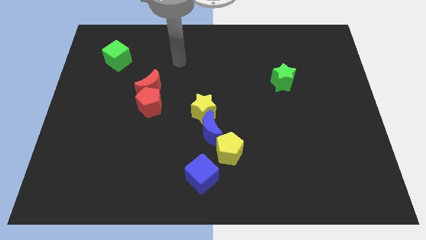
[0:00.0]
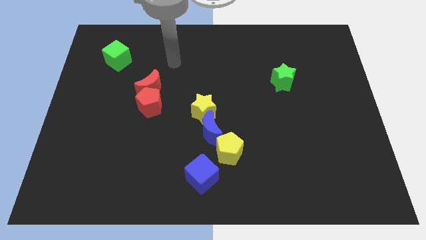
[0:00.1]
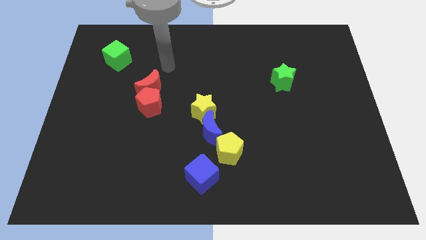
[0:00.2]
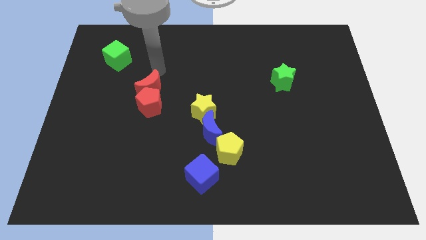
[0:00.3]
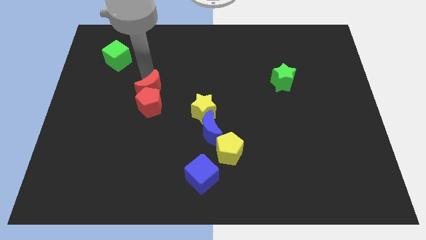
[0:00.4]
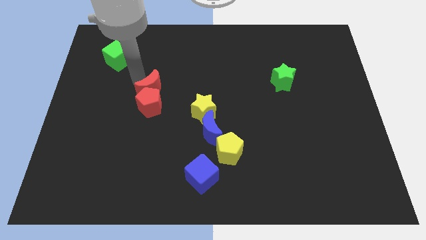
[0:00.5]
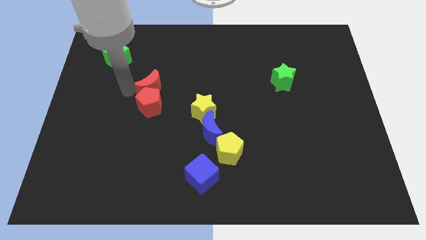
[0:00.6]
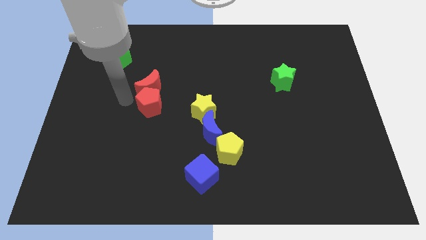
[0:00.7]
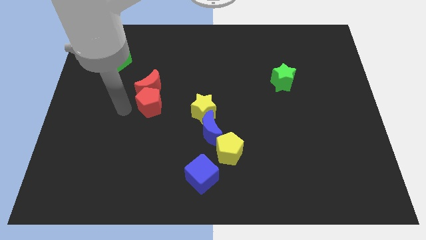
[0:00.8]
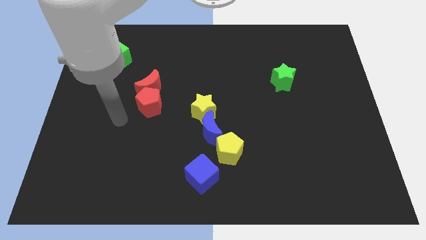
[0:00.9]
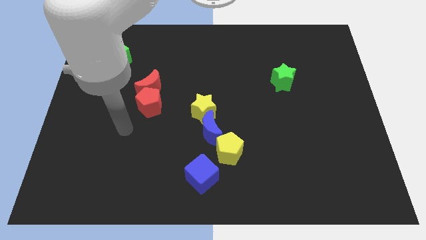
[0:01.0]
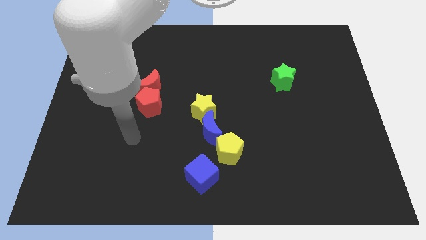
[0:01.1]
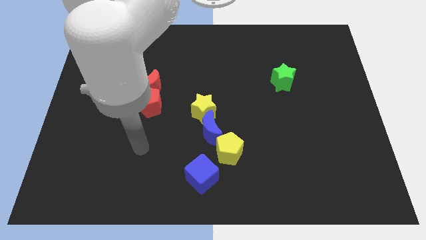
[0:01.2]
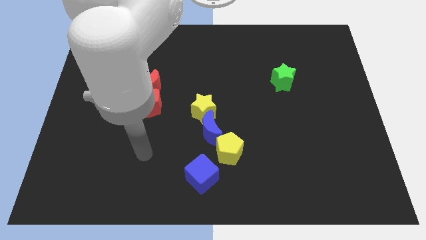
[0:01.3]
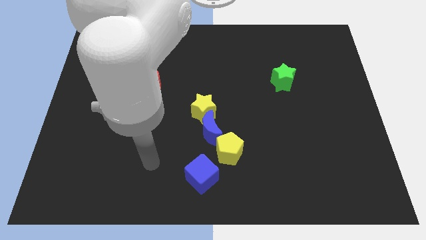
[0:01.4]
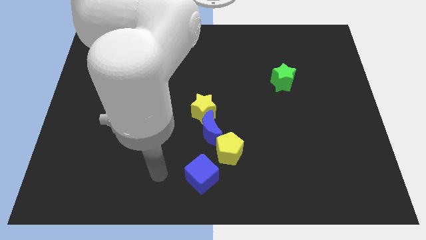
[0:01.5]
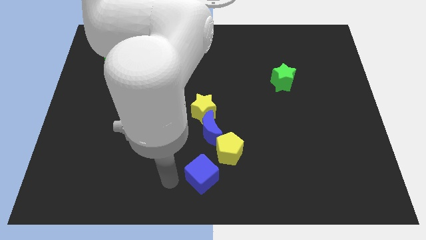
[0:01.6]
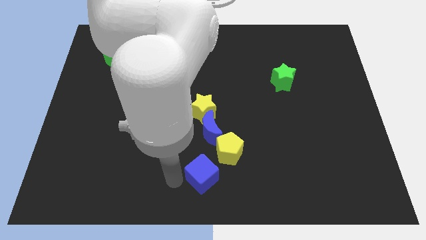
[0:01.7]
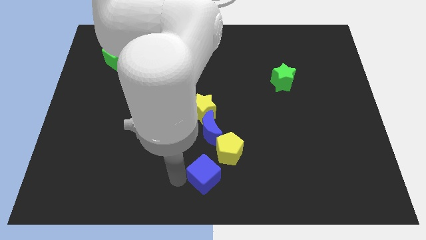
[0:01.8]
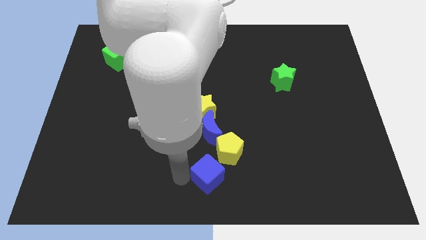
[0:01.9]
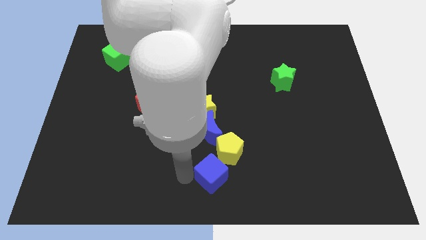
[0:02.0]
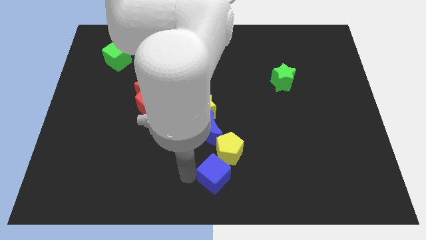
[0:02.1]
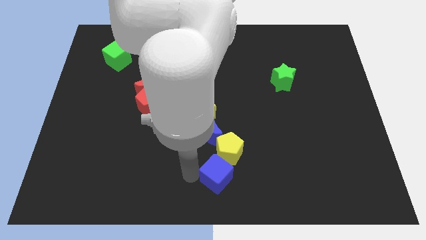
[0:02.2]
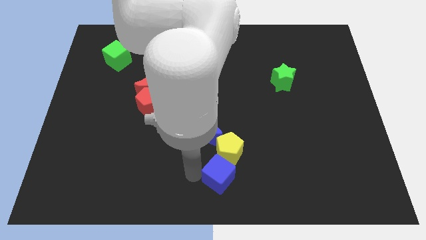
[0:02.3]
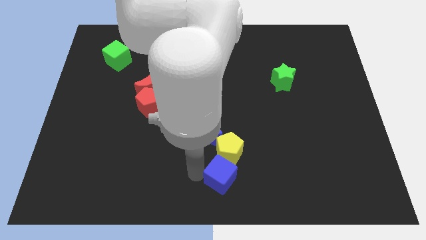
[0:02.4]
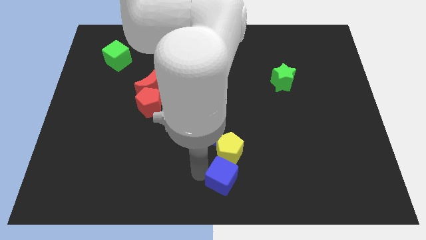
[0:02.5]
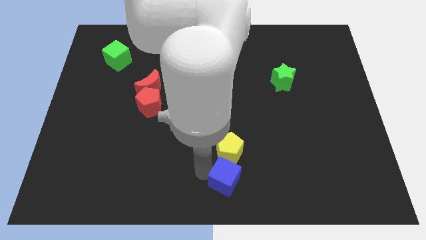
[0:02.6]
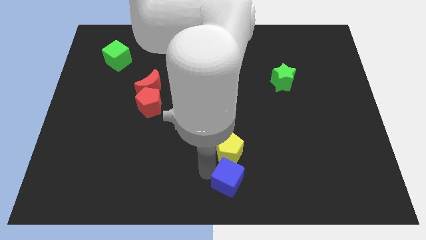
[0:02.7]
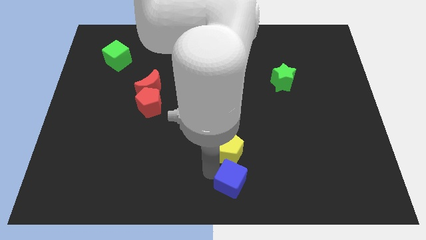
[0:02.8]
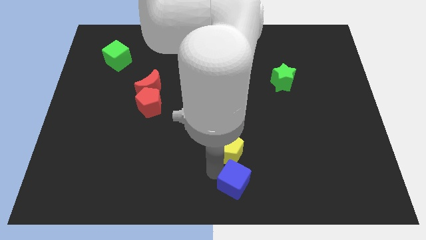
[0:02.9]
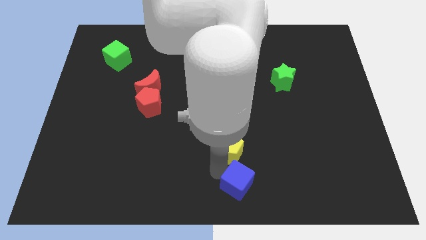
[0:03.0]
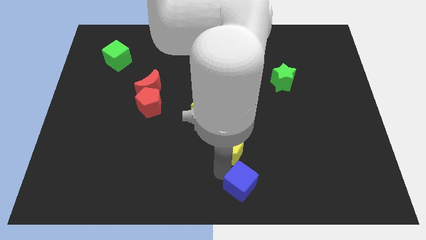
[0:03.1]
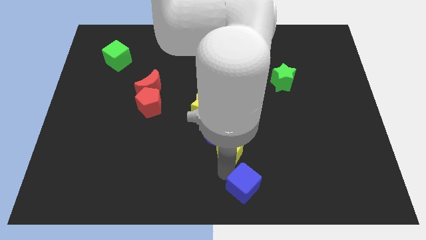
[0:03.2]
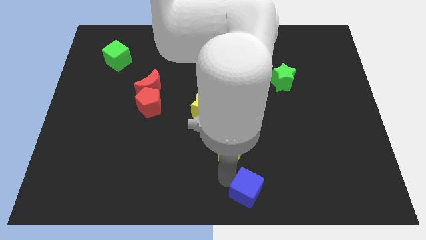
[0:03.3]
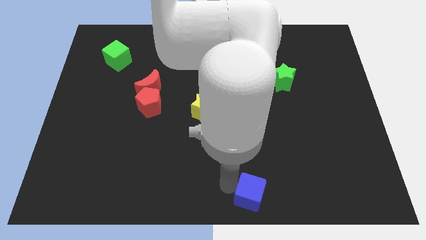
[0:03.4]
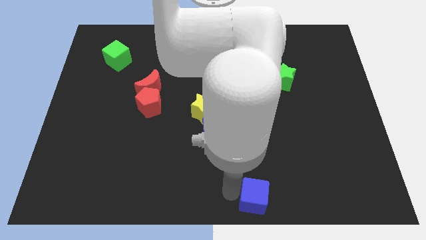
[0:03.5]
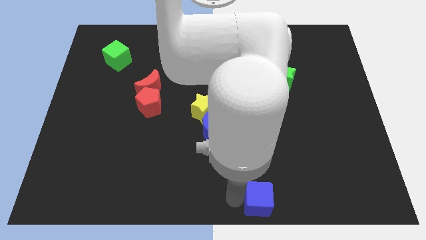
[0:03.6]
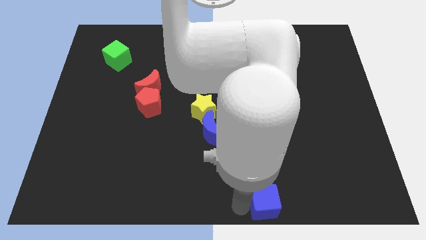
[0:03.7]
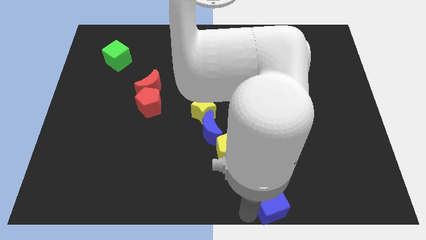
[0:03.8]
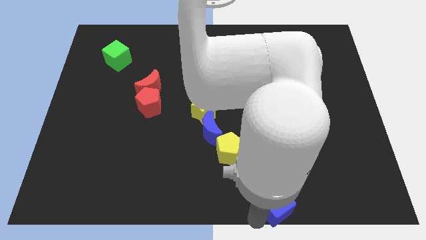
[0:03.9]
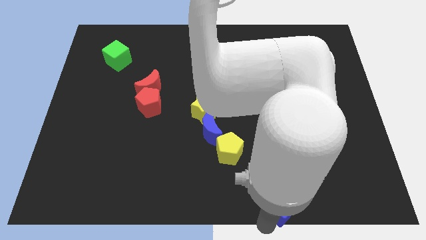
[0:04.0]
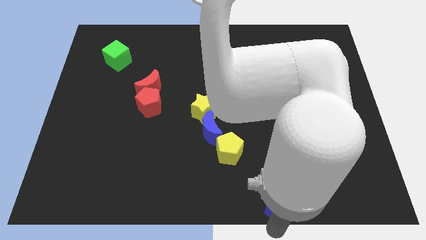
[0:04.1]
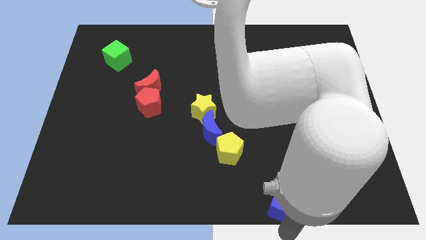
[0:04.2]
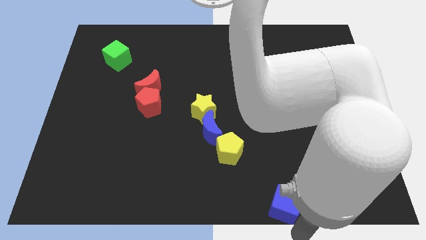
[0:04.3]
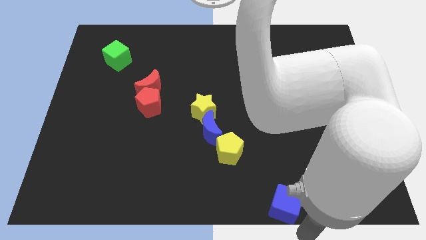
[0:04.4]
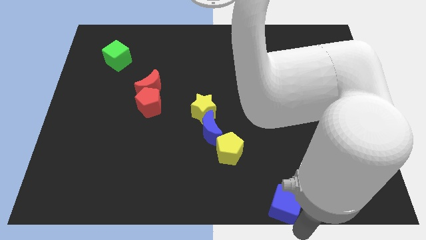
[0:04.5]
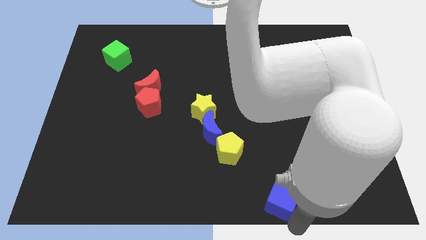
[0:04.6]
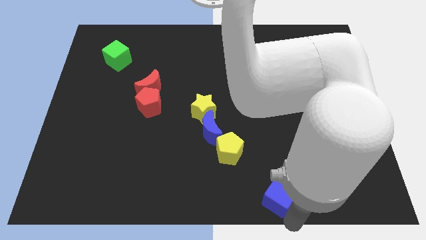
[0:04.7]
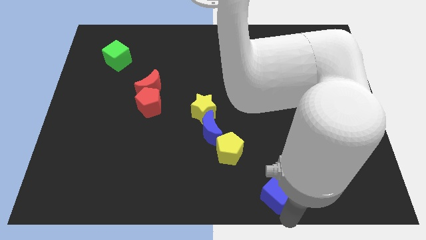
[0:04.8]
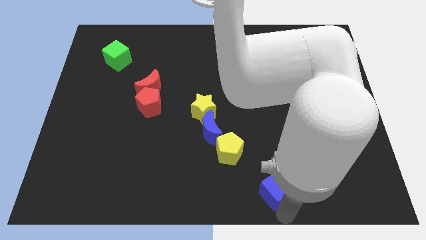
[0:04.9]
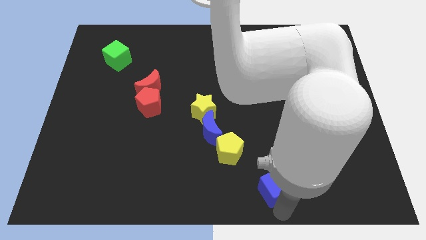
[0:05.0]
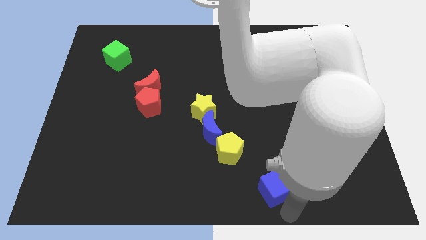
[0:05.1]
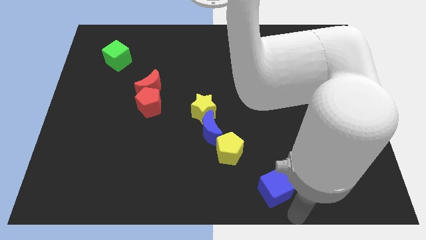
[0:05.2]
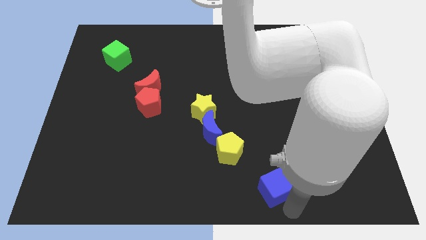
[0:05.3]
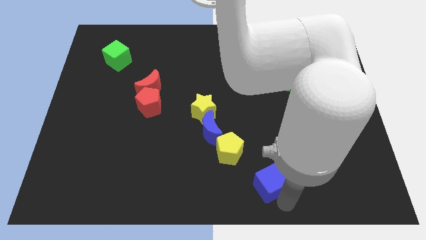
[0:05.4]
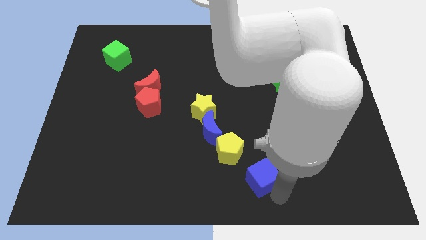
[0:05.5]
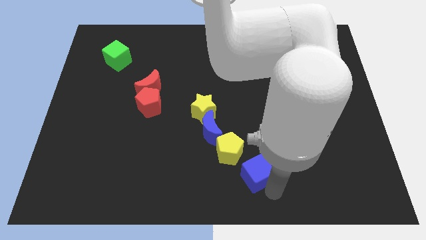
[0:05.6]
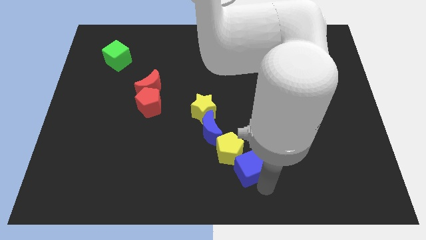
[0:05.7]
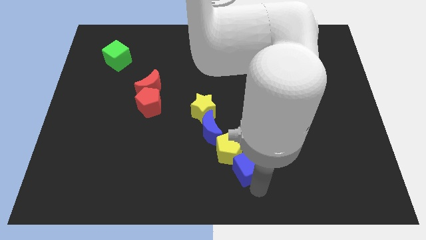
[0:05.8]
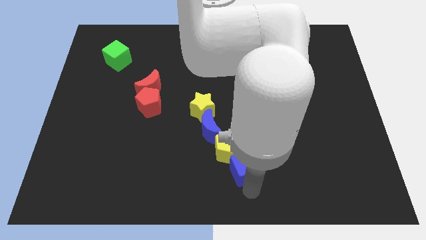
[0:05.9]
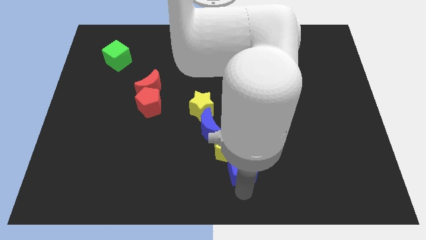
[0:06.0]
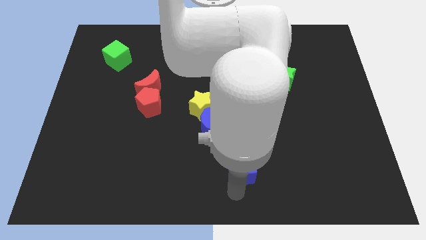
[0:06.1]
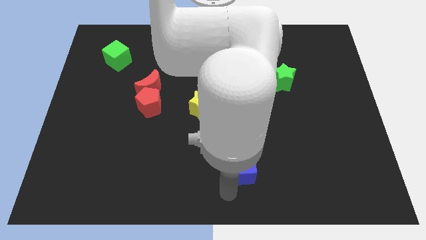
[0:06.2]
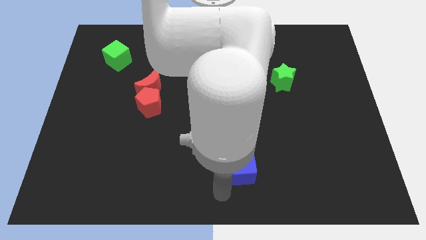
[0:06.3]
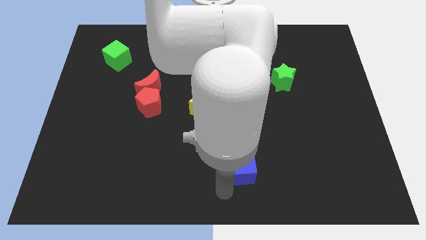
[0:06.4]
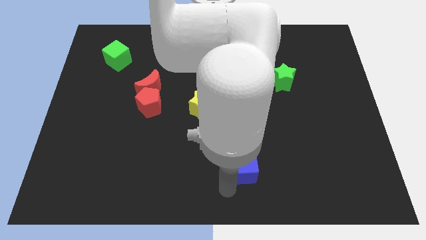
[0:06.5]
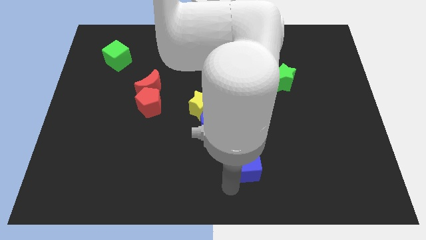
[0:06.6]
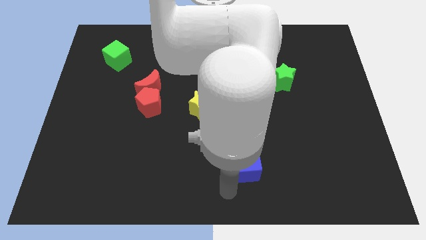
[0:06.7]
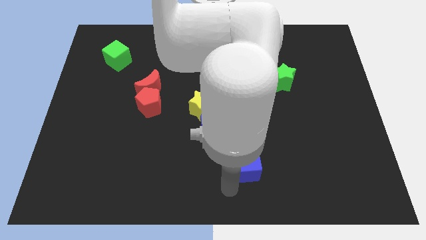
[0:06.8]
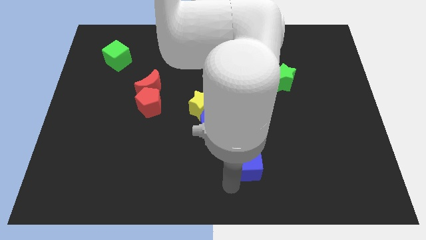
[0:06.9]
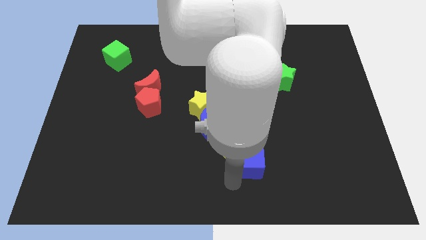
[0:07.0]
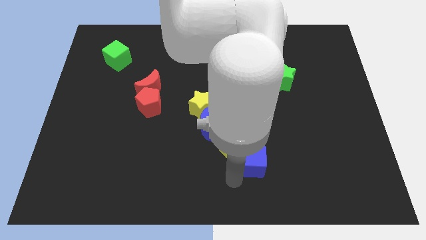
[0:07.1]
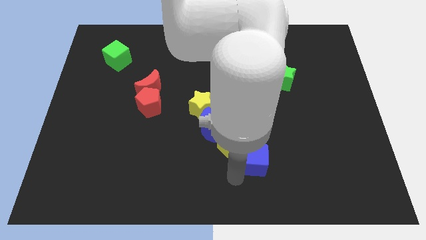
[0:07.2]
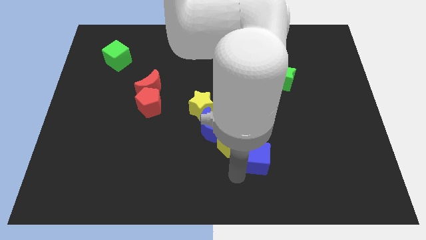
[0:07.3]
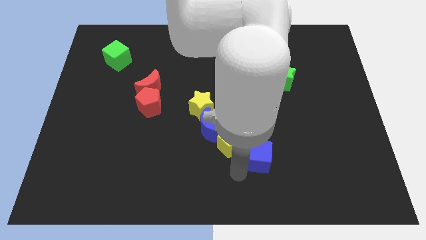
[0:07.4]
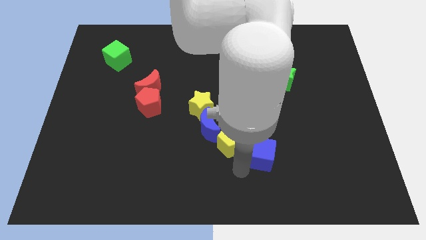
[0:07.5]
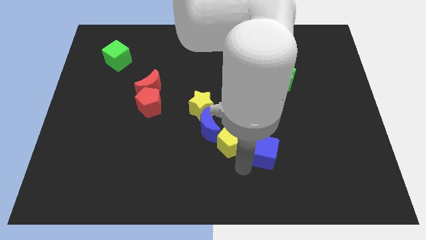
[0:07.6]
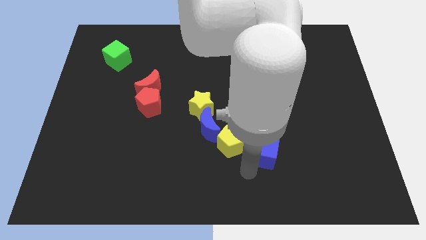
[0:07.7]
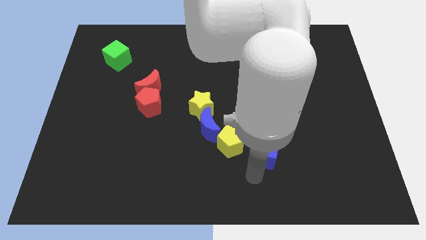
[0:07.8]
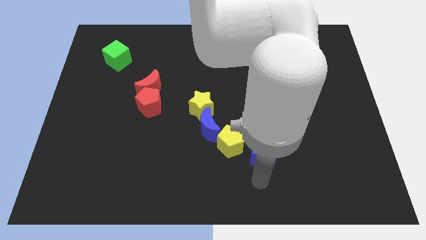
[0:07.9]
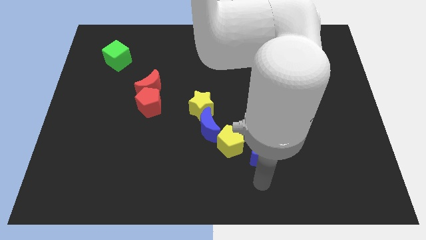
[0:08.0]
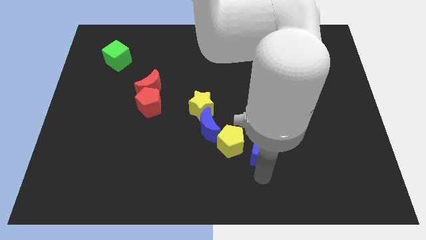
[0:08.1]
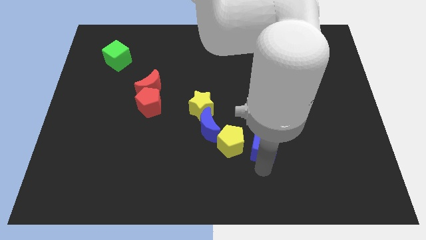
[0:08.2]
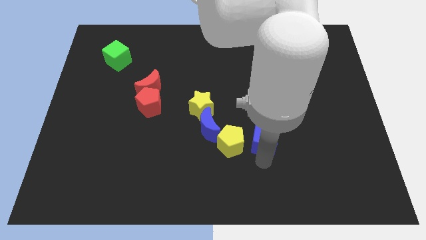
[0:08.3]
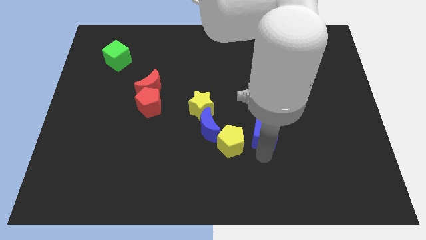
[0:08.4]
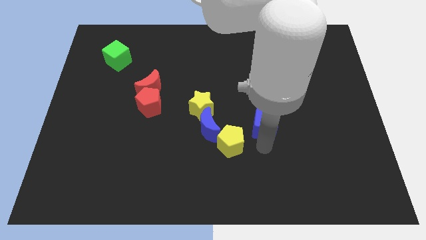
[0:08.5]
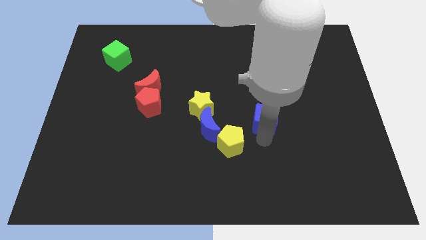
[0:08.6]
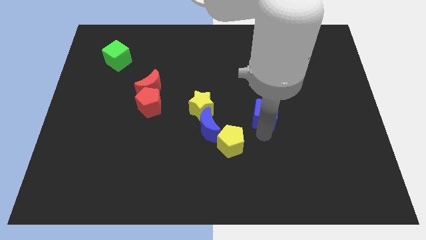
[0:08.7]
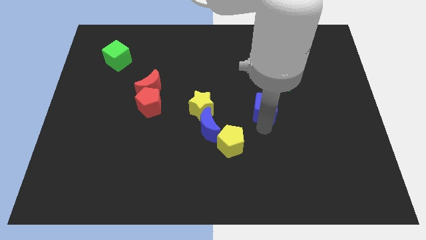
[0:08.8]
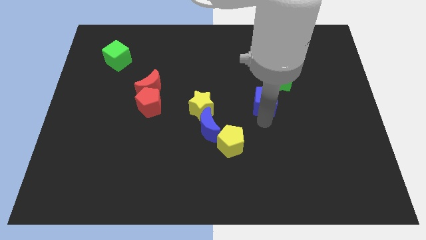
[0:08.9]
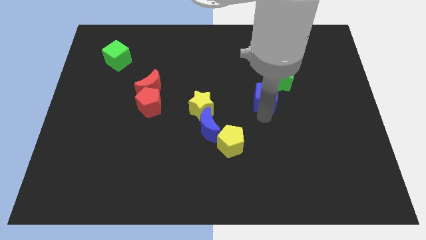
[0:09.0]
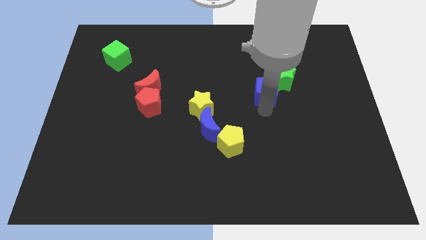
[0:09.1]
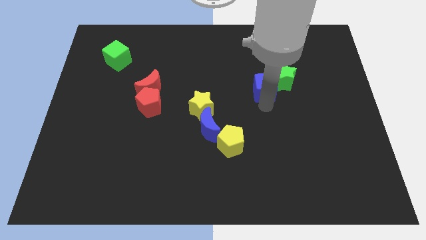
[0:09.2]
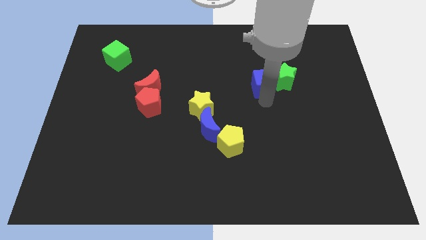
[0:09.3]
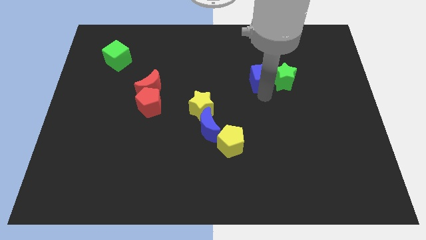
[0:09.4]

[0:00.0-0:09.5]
push the blue cube to the top left of the green star
